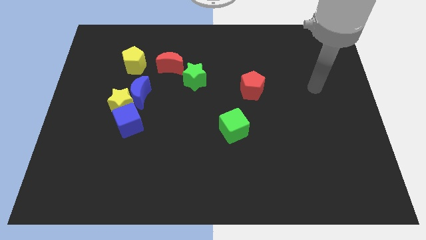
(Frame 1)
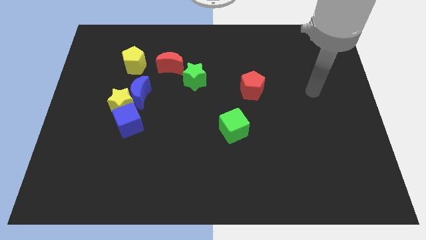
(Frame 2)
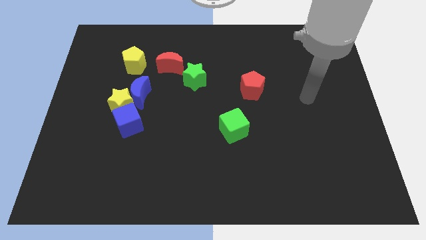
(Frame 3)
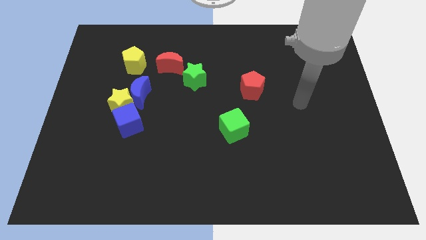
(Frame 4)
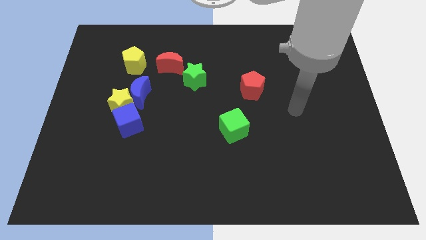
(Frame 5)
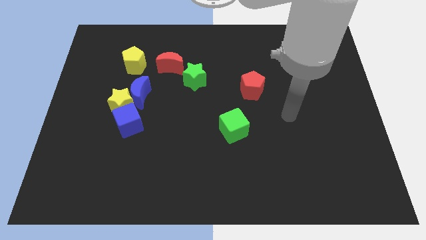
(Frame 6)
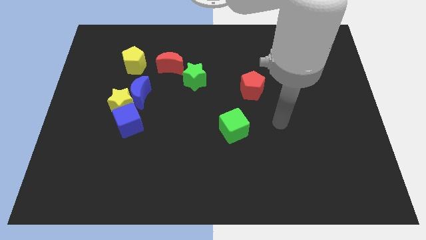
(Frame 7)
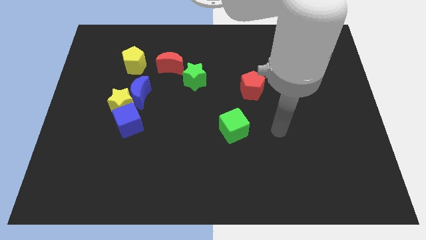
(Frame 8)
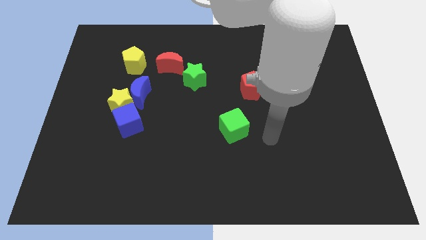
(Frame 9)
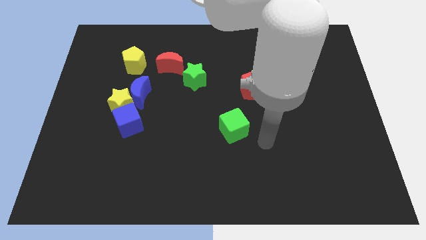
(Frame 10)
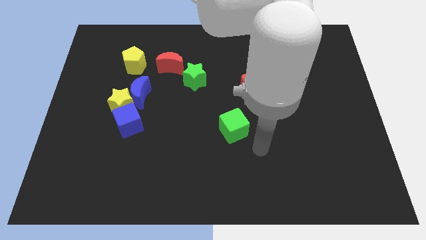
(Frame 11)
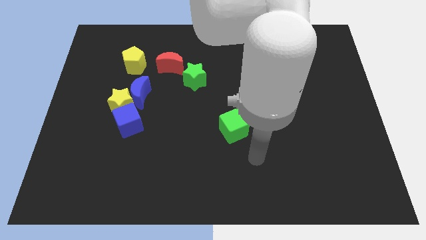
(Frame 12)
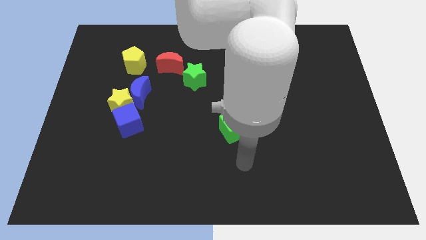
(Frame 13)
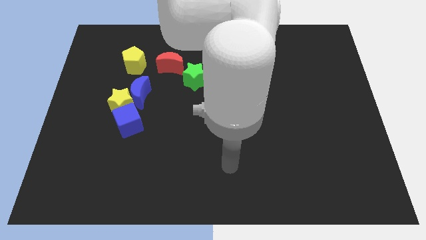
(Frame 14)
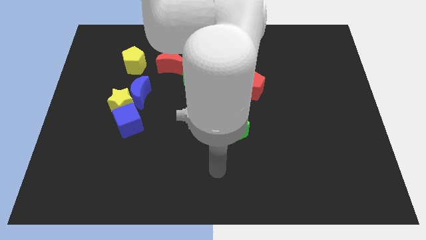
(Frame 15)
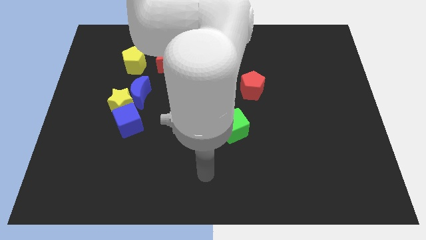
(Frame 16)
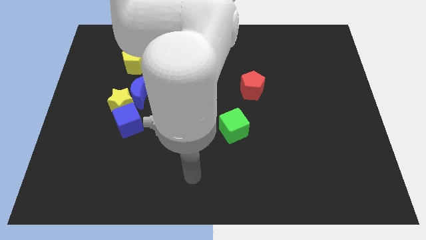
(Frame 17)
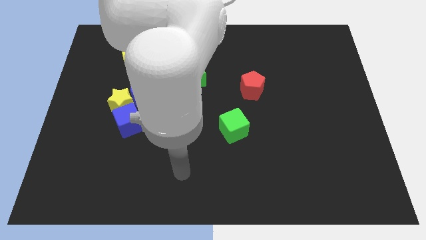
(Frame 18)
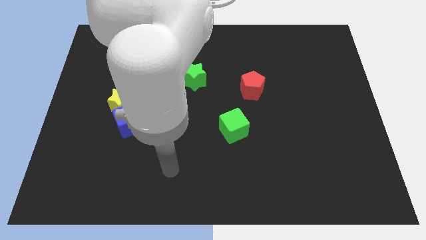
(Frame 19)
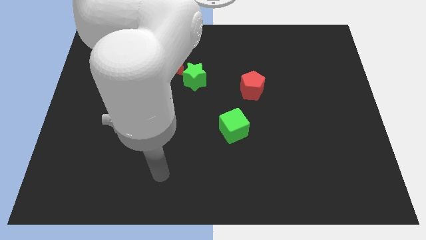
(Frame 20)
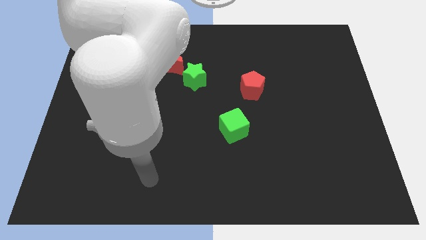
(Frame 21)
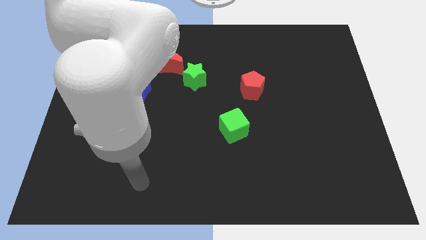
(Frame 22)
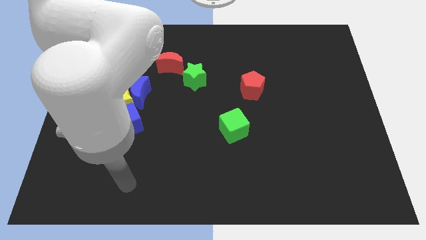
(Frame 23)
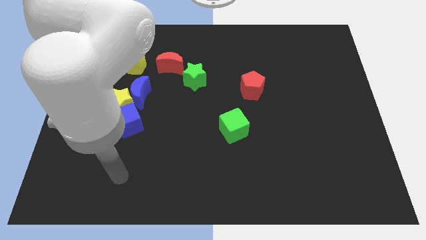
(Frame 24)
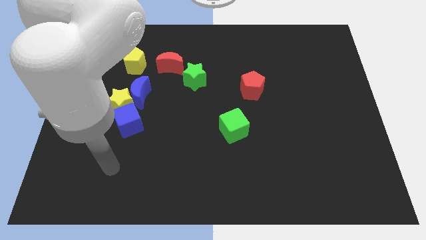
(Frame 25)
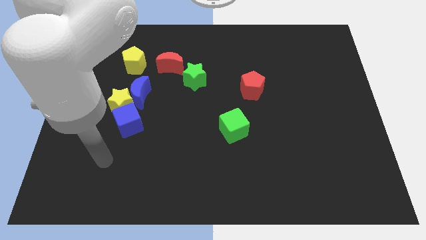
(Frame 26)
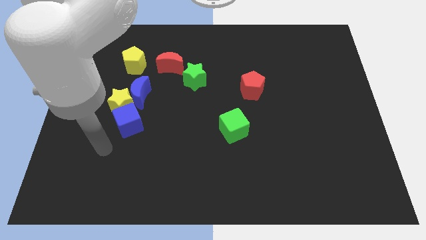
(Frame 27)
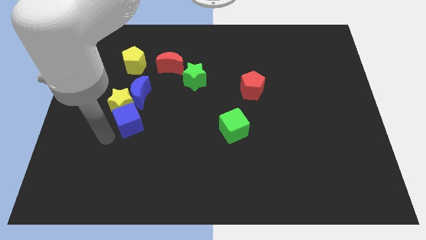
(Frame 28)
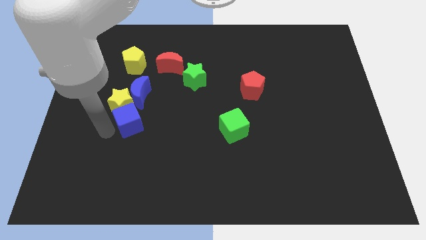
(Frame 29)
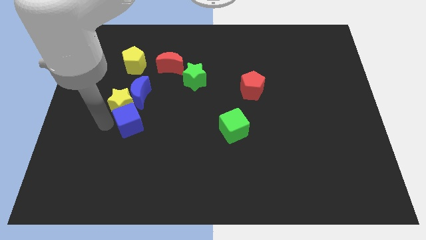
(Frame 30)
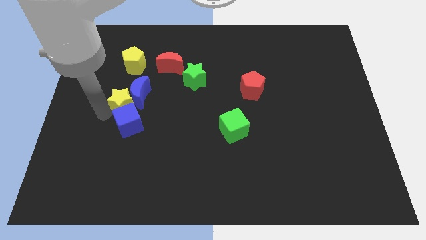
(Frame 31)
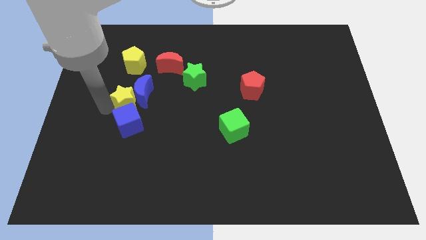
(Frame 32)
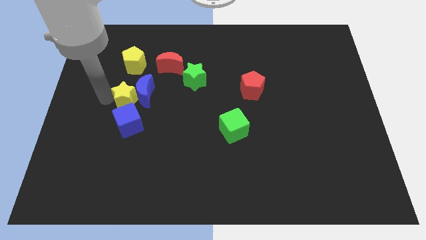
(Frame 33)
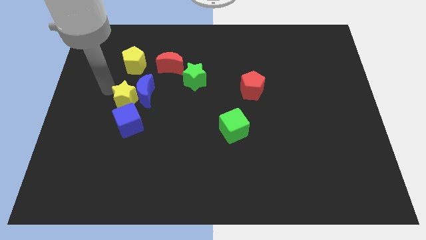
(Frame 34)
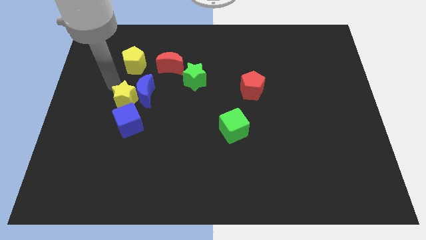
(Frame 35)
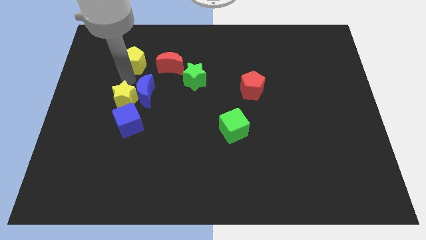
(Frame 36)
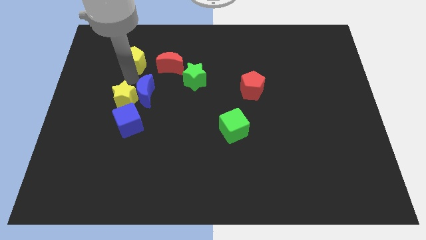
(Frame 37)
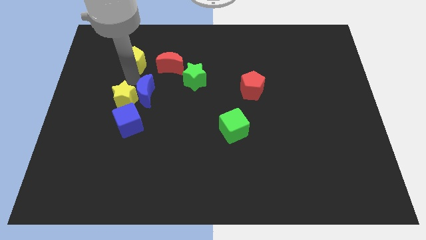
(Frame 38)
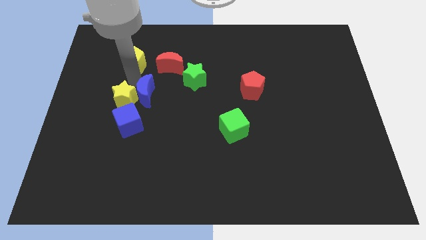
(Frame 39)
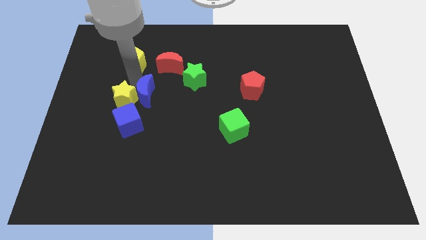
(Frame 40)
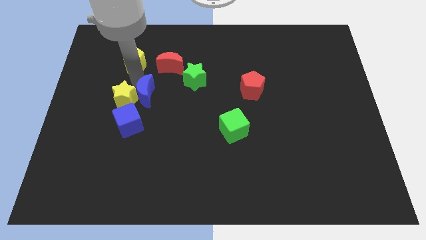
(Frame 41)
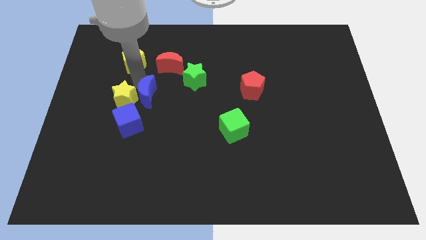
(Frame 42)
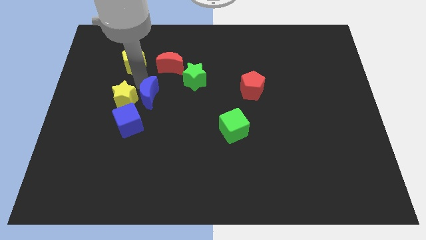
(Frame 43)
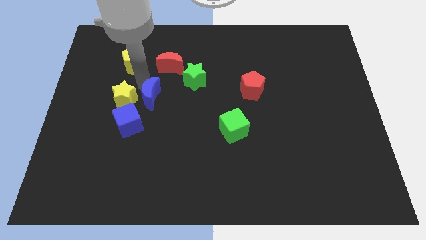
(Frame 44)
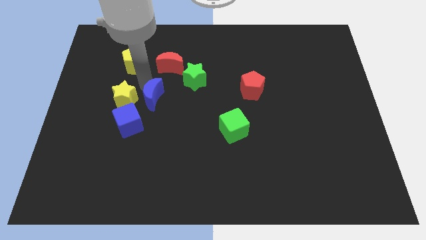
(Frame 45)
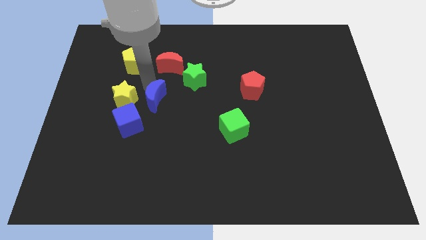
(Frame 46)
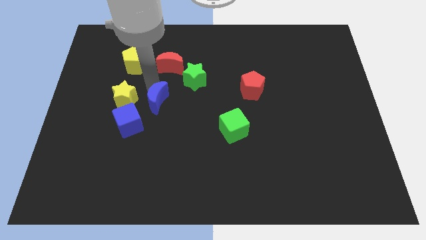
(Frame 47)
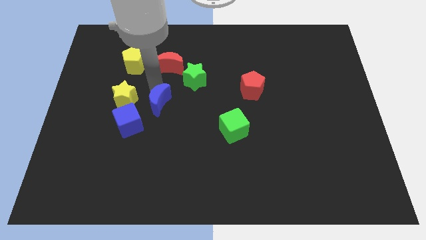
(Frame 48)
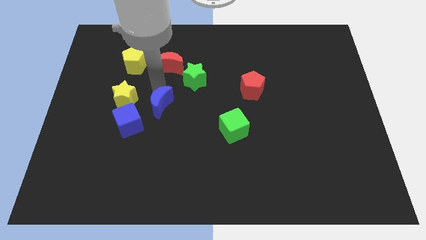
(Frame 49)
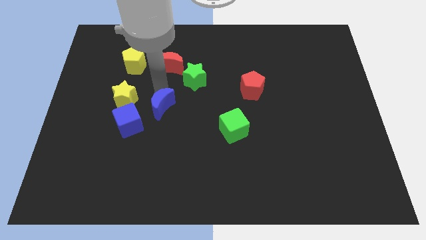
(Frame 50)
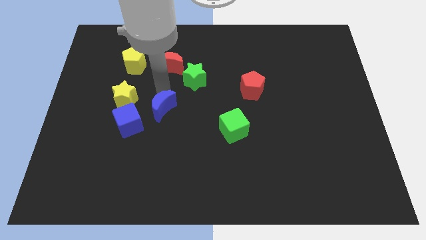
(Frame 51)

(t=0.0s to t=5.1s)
push the blue moon a little down and to the right

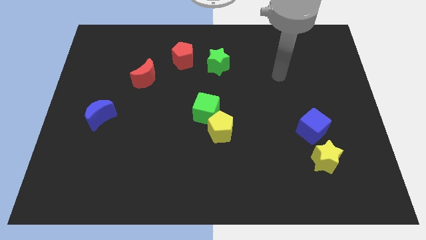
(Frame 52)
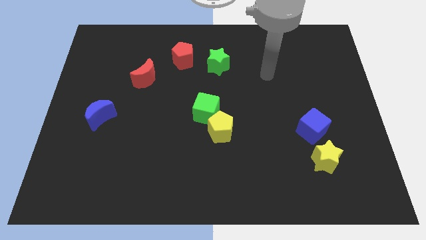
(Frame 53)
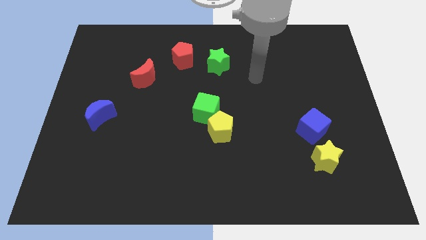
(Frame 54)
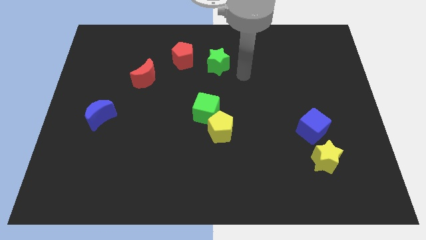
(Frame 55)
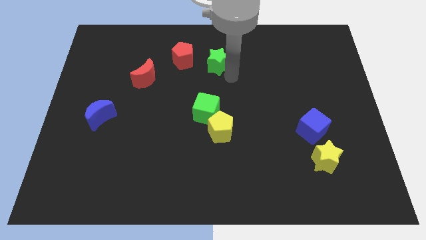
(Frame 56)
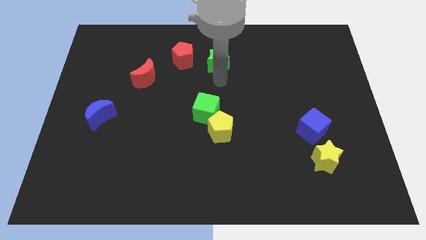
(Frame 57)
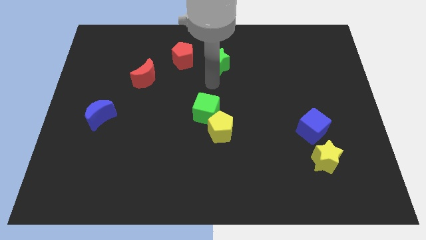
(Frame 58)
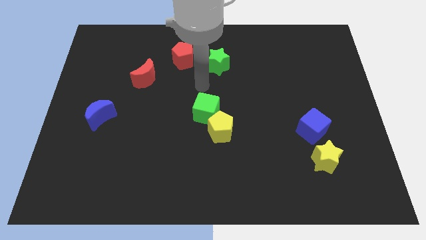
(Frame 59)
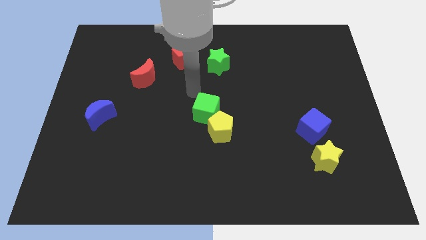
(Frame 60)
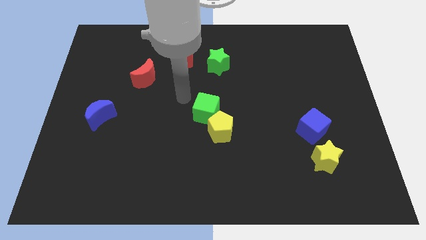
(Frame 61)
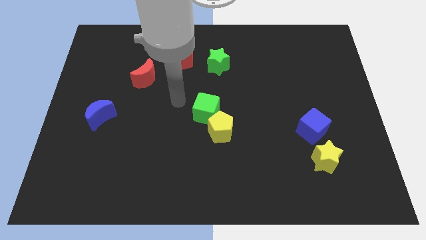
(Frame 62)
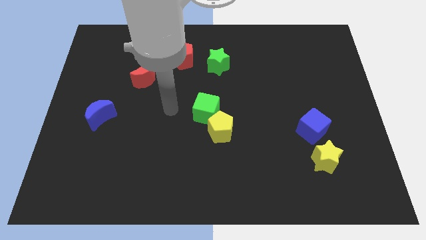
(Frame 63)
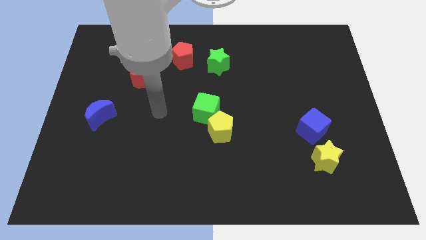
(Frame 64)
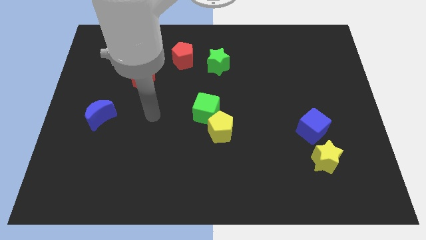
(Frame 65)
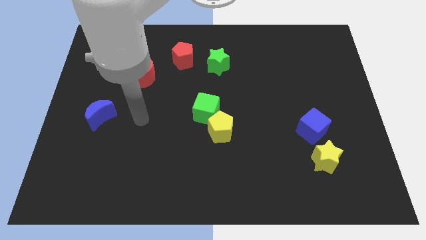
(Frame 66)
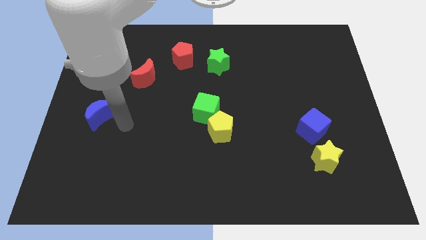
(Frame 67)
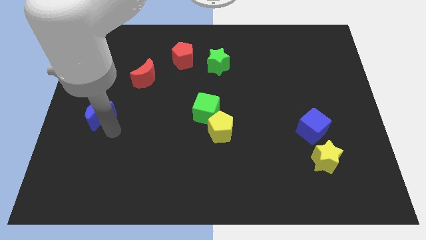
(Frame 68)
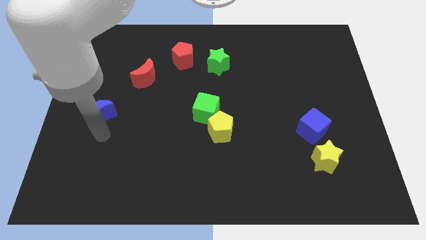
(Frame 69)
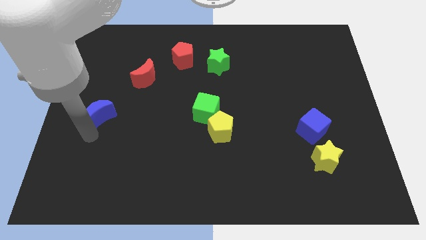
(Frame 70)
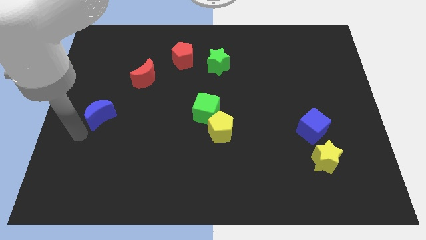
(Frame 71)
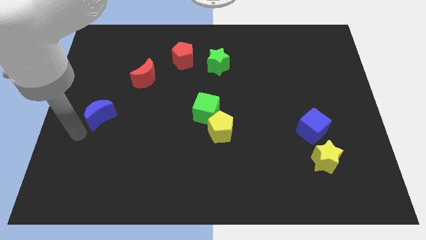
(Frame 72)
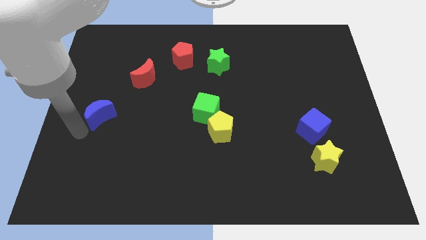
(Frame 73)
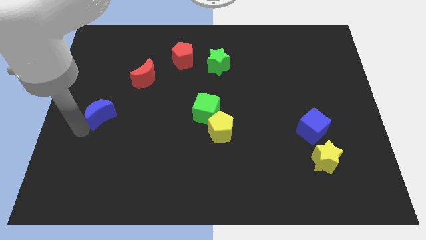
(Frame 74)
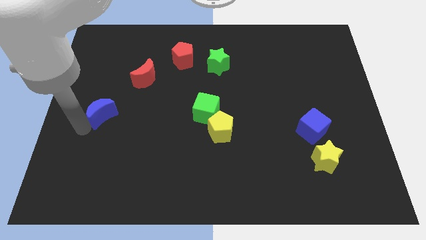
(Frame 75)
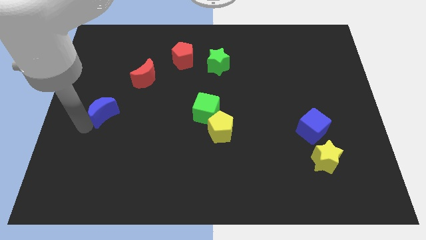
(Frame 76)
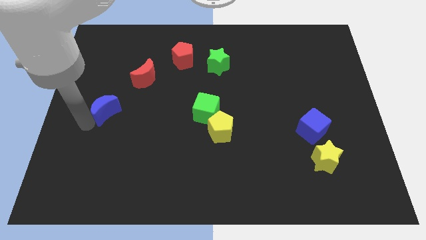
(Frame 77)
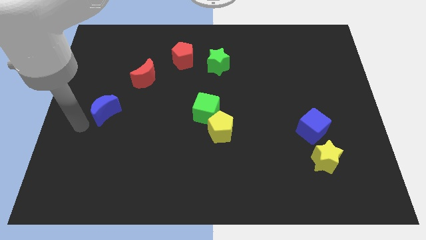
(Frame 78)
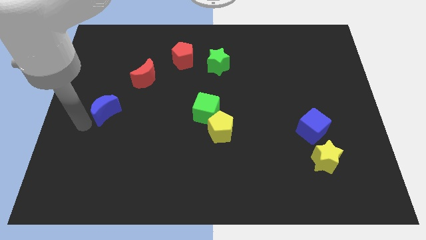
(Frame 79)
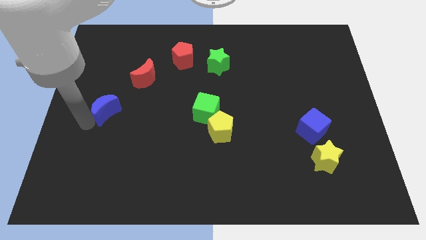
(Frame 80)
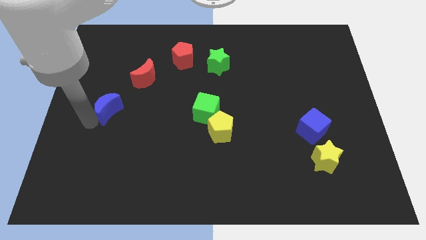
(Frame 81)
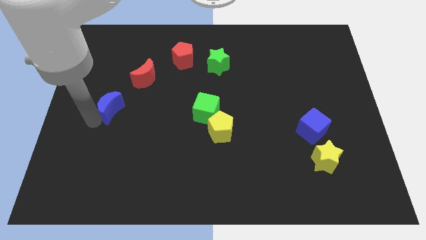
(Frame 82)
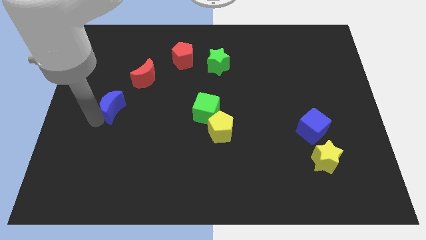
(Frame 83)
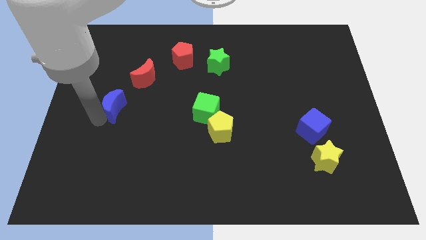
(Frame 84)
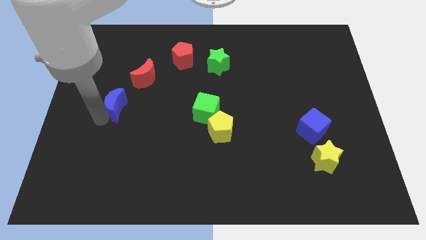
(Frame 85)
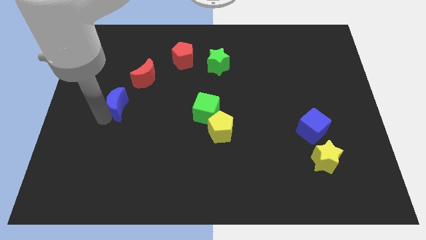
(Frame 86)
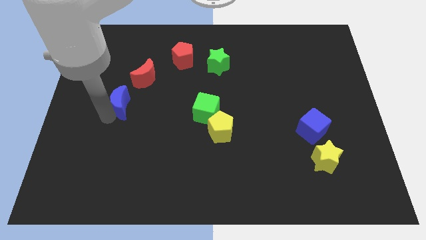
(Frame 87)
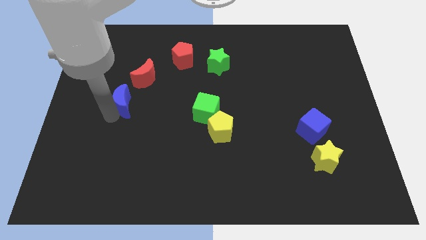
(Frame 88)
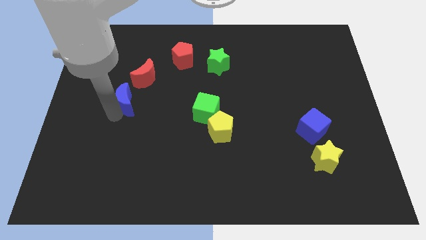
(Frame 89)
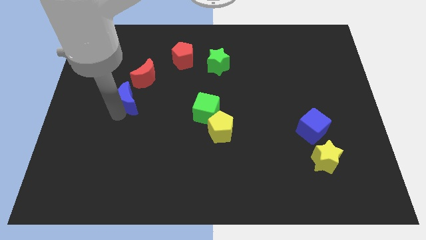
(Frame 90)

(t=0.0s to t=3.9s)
move the blue moon upwards and then right a little
